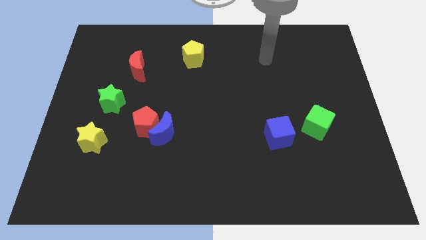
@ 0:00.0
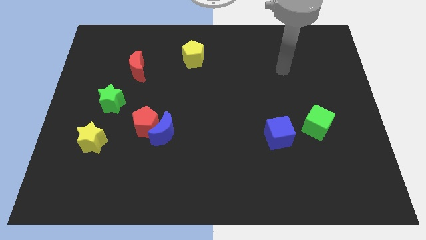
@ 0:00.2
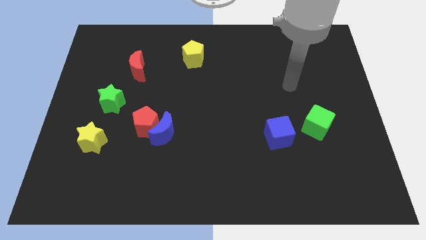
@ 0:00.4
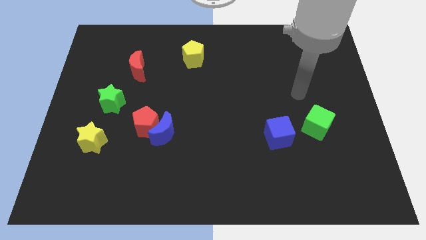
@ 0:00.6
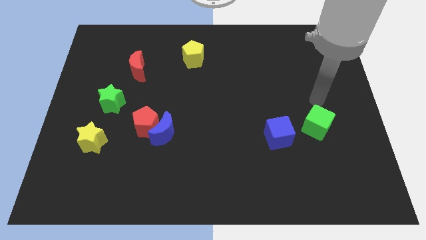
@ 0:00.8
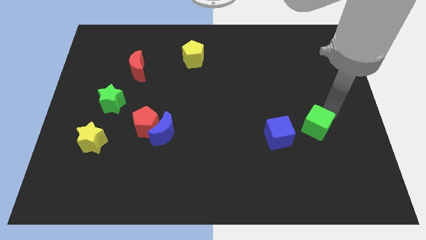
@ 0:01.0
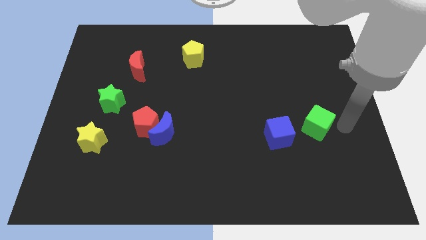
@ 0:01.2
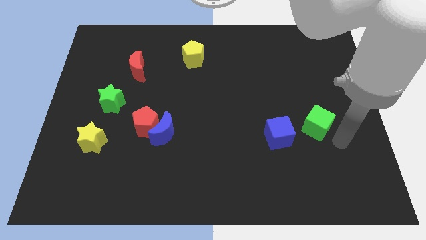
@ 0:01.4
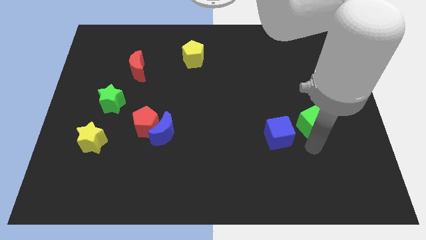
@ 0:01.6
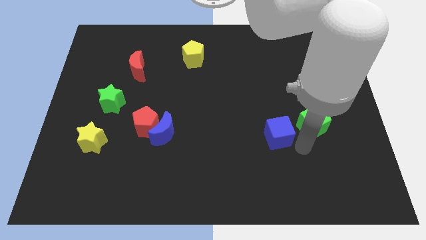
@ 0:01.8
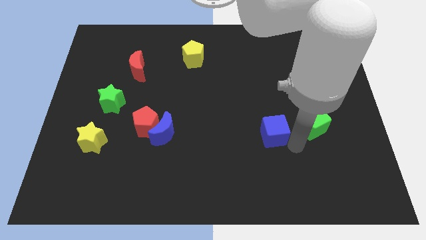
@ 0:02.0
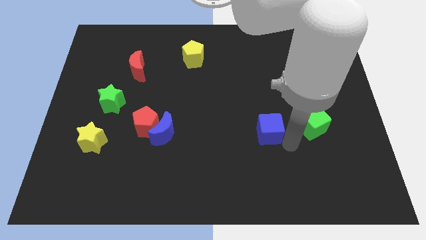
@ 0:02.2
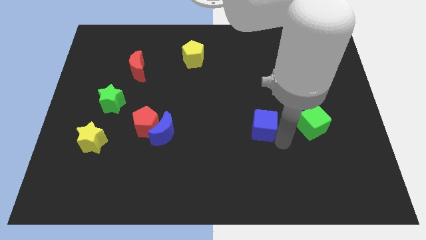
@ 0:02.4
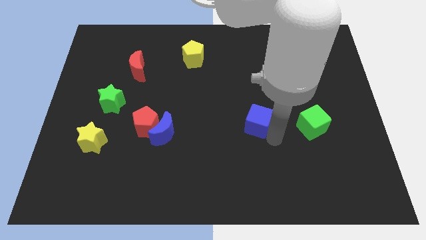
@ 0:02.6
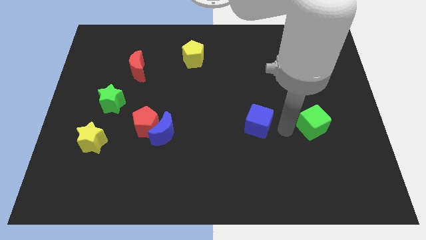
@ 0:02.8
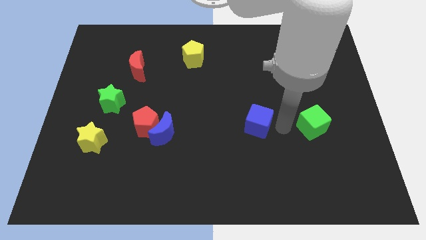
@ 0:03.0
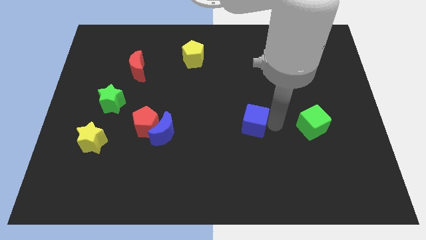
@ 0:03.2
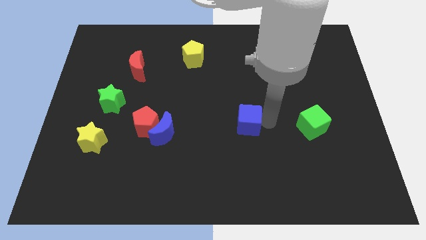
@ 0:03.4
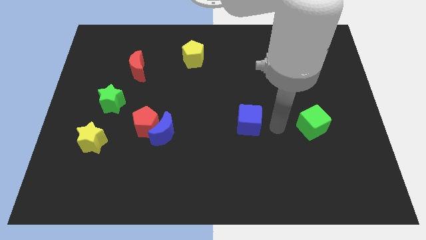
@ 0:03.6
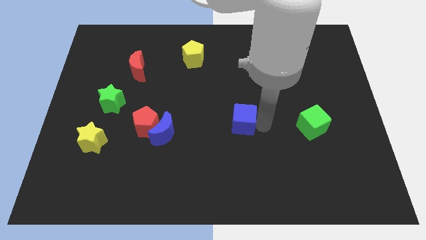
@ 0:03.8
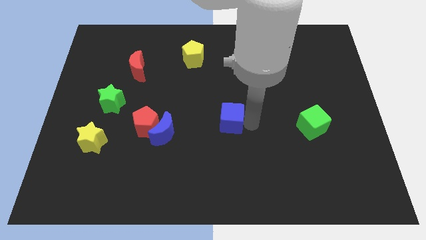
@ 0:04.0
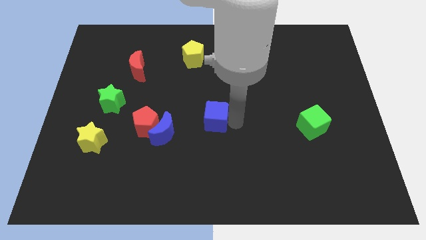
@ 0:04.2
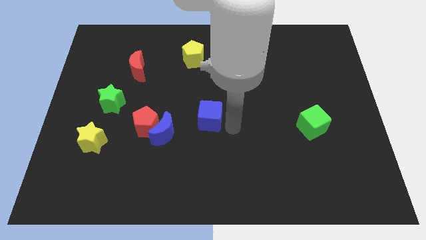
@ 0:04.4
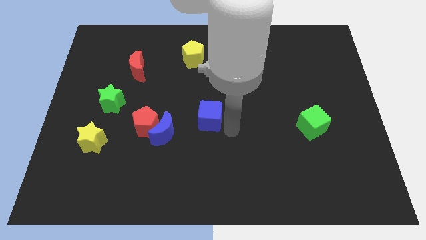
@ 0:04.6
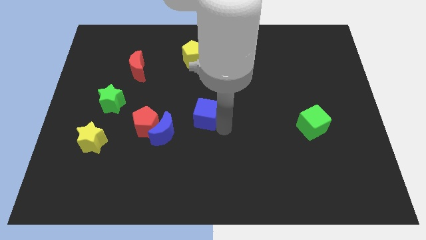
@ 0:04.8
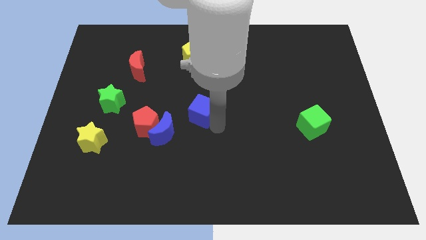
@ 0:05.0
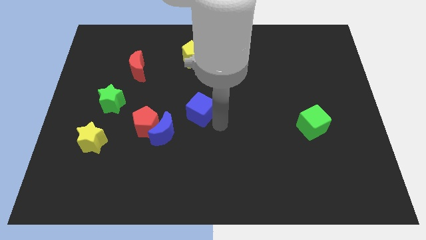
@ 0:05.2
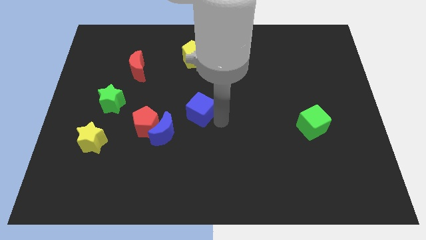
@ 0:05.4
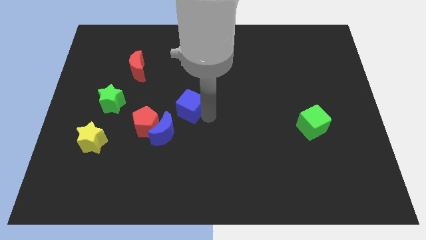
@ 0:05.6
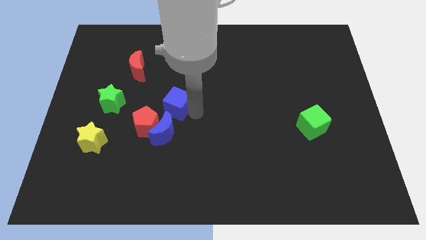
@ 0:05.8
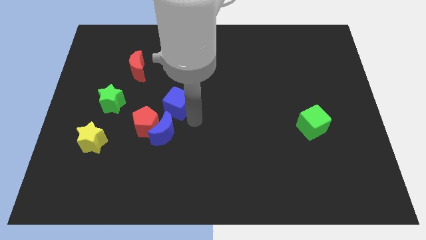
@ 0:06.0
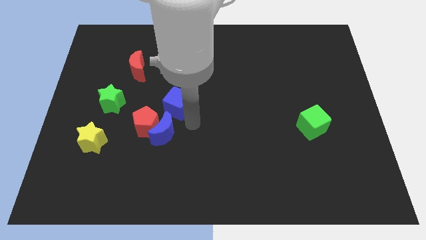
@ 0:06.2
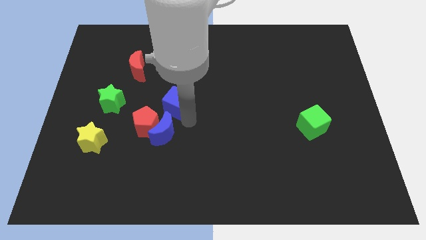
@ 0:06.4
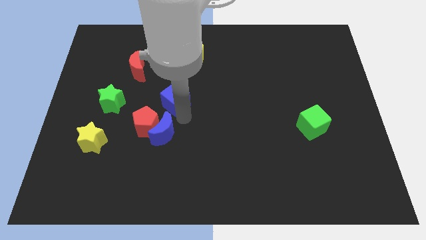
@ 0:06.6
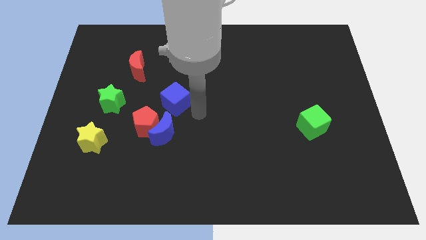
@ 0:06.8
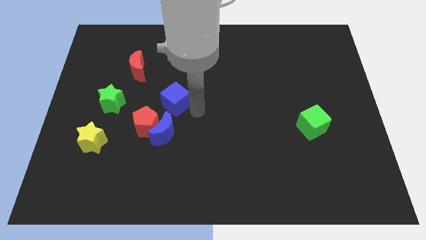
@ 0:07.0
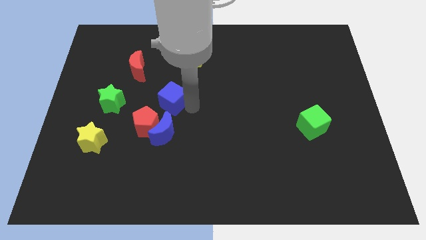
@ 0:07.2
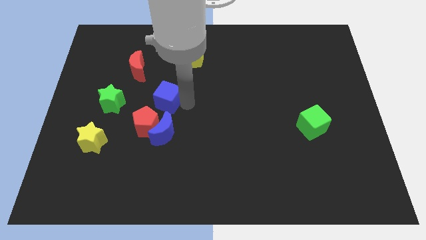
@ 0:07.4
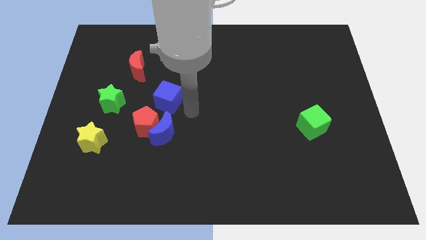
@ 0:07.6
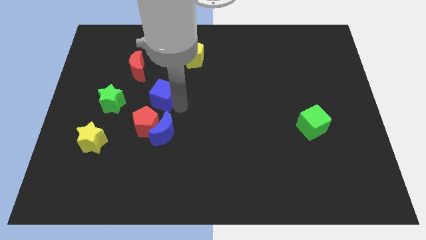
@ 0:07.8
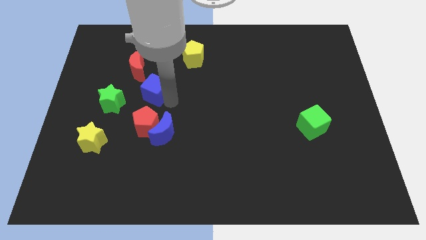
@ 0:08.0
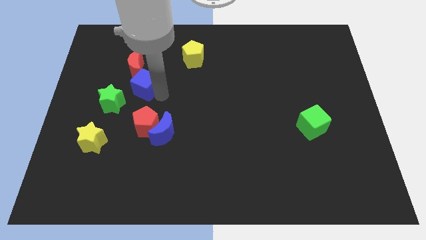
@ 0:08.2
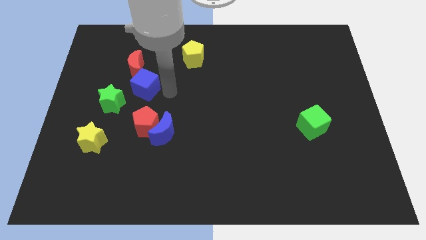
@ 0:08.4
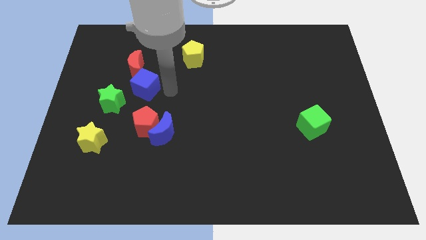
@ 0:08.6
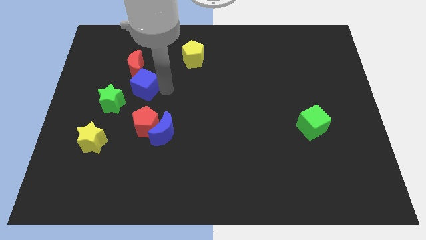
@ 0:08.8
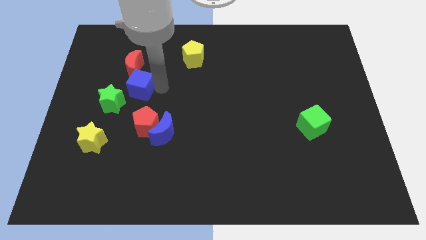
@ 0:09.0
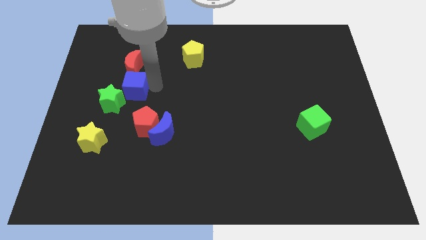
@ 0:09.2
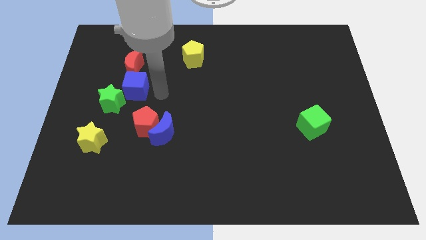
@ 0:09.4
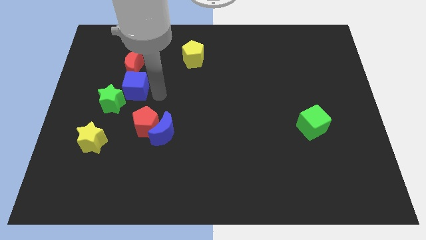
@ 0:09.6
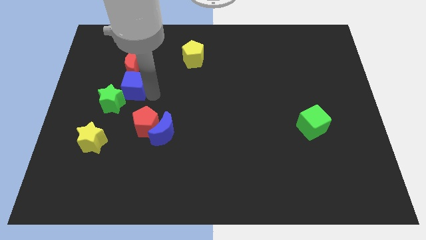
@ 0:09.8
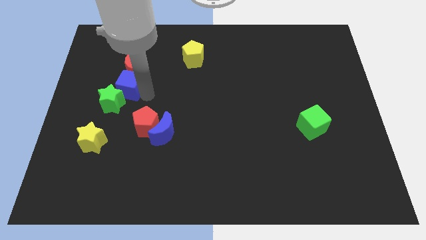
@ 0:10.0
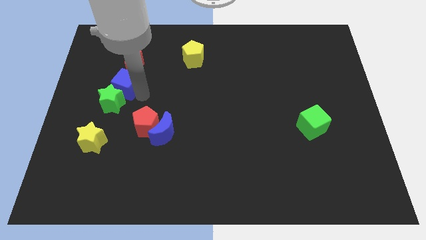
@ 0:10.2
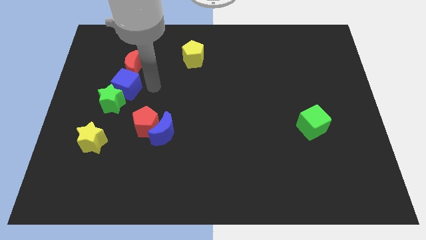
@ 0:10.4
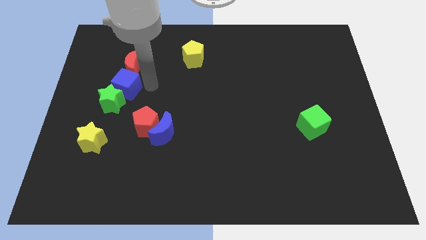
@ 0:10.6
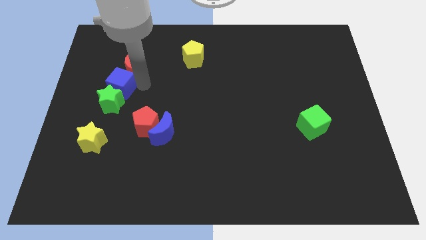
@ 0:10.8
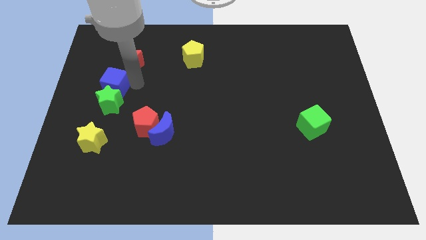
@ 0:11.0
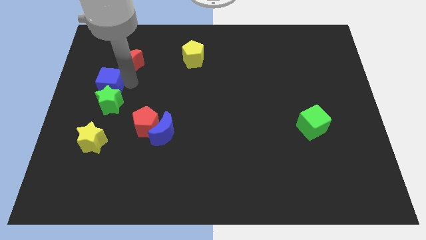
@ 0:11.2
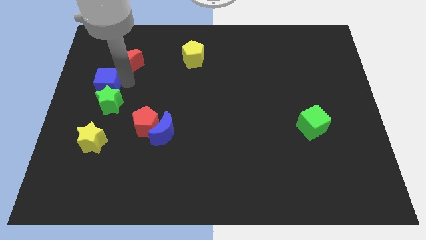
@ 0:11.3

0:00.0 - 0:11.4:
put the blue cube to the center left

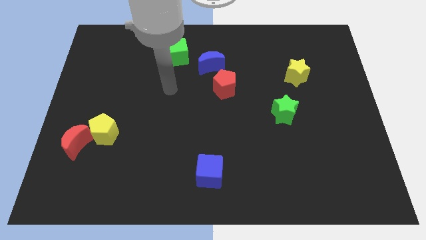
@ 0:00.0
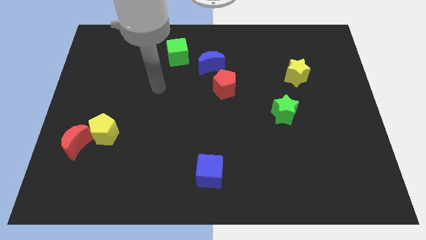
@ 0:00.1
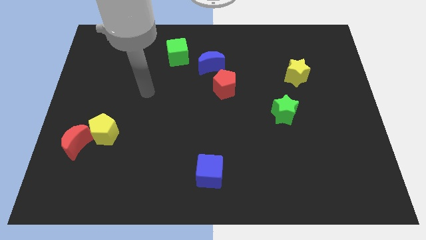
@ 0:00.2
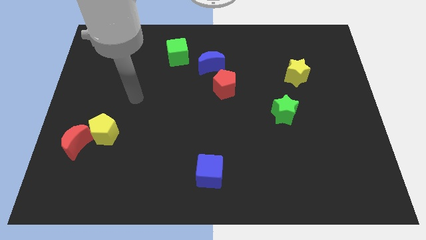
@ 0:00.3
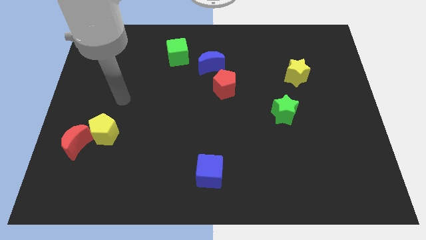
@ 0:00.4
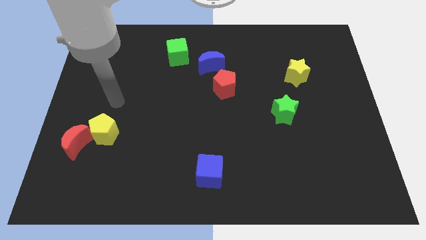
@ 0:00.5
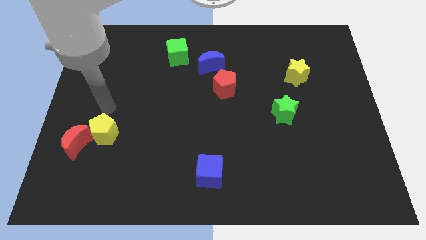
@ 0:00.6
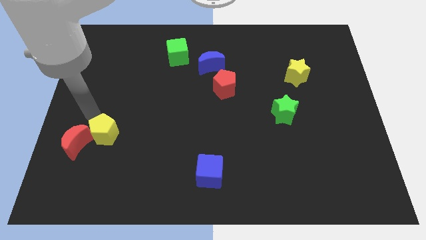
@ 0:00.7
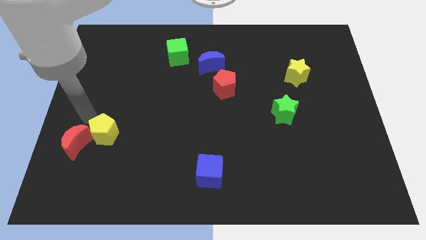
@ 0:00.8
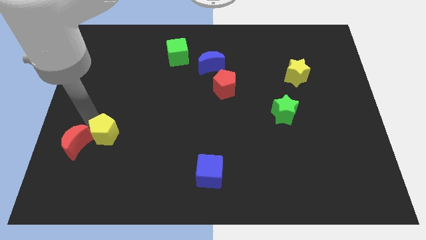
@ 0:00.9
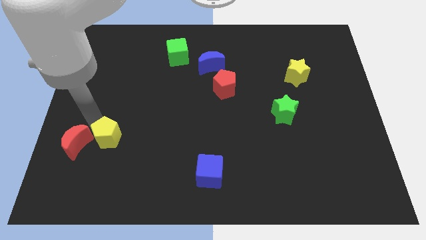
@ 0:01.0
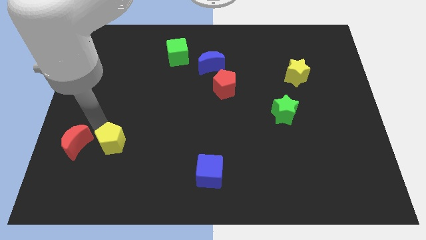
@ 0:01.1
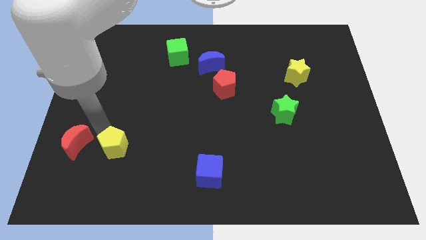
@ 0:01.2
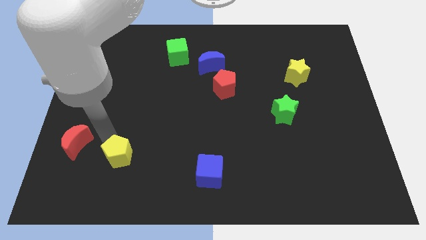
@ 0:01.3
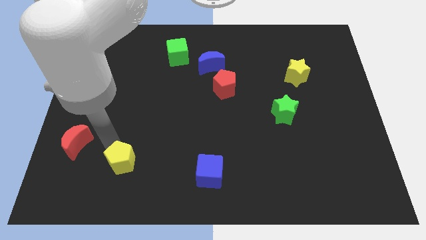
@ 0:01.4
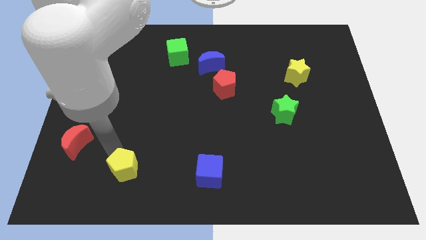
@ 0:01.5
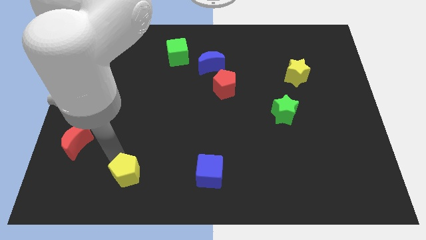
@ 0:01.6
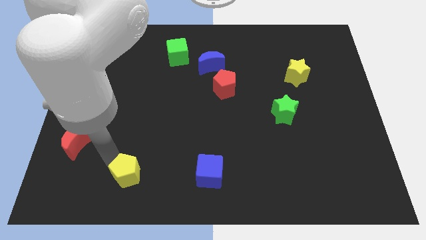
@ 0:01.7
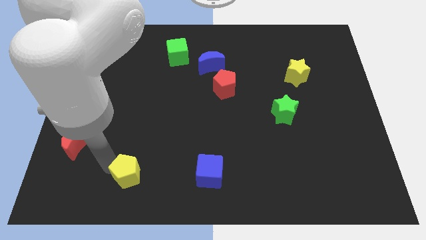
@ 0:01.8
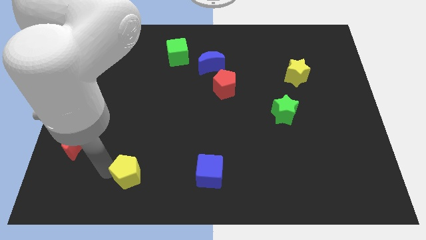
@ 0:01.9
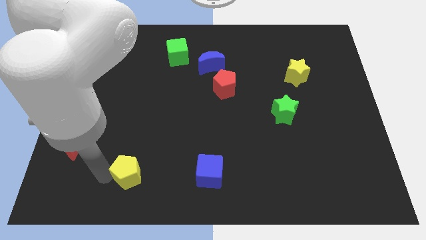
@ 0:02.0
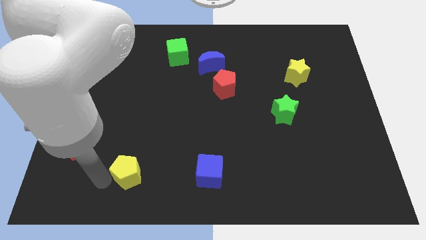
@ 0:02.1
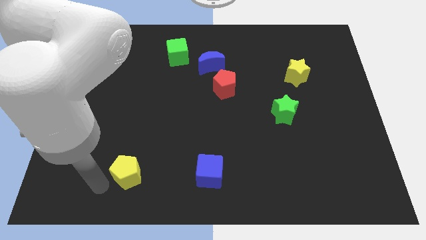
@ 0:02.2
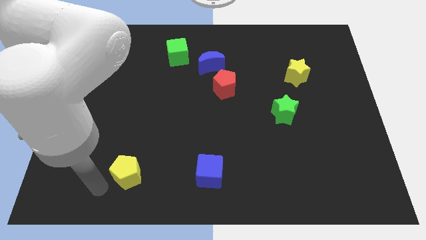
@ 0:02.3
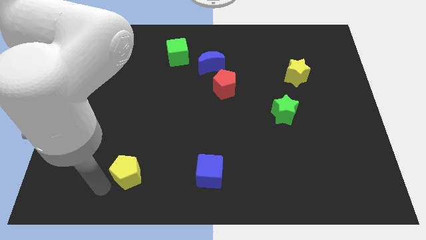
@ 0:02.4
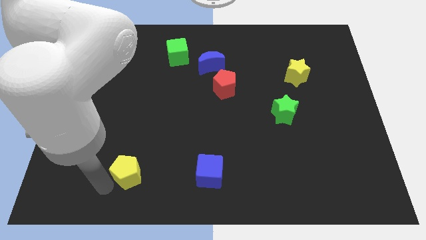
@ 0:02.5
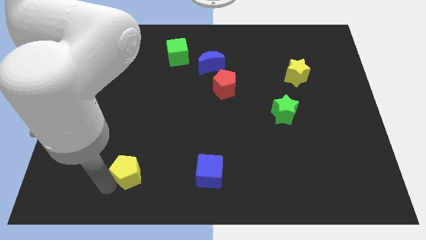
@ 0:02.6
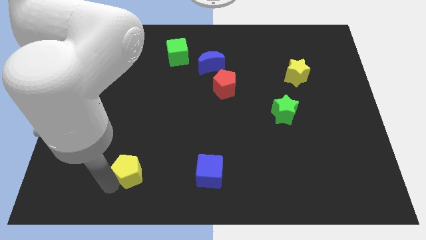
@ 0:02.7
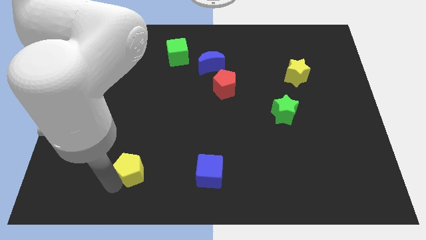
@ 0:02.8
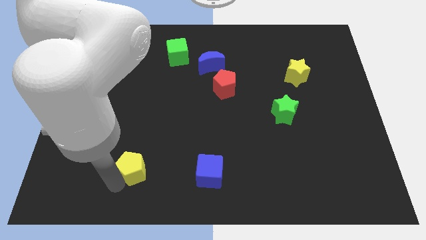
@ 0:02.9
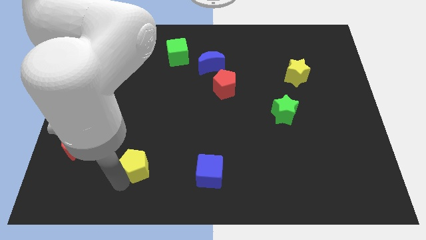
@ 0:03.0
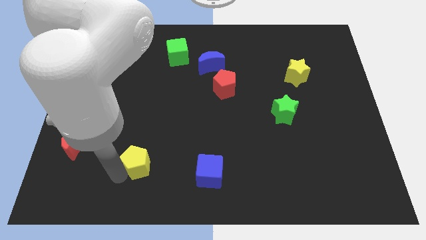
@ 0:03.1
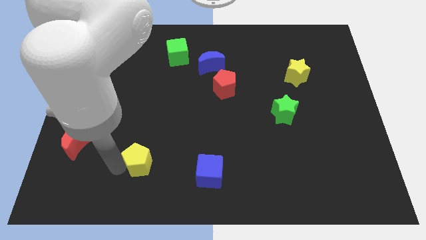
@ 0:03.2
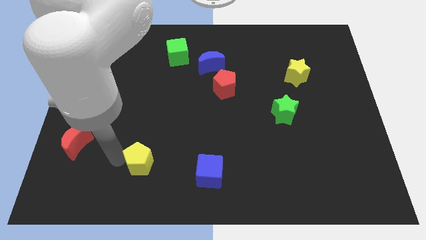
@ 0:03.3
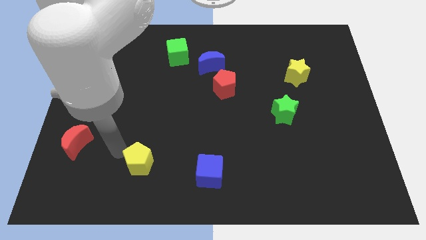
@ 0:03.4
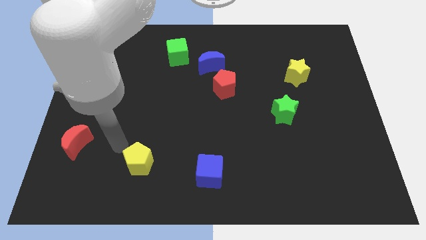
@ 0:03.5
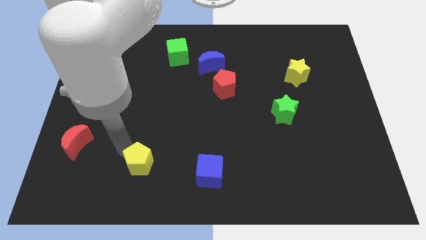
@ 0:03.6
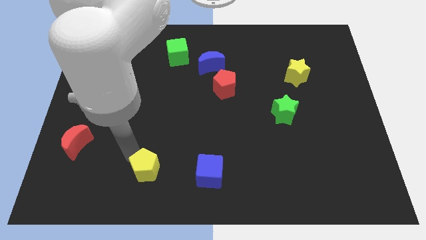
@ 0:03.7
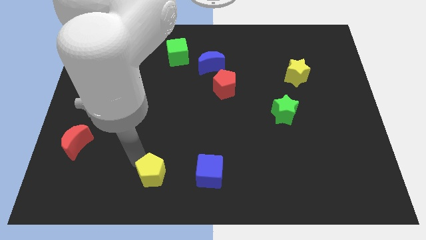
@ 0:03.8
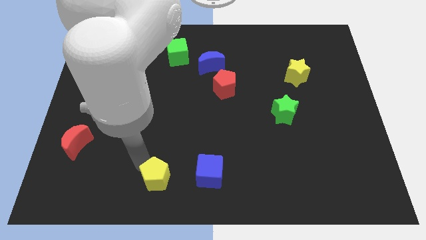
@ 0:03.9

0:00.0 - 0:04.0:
push the yellow pentagon to the bottom
